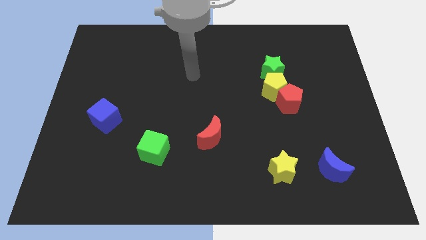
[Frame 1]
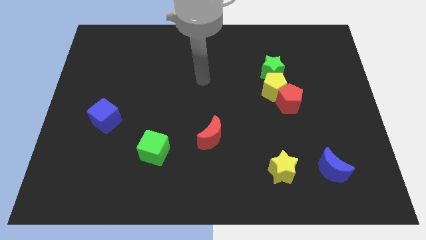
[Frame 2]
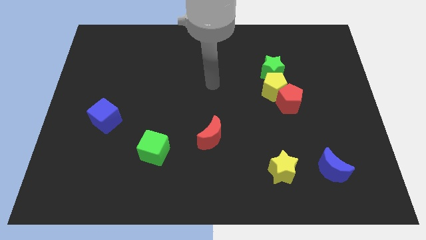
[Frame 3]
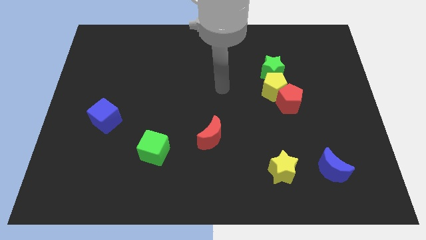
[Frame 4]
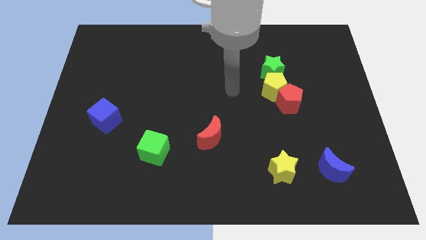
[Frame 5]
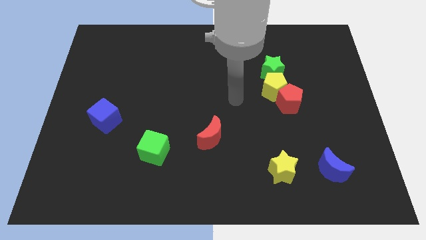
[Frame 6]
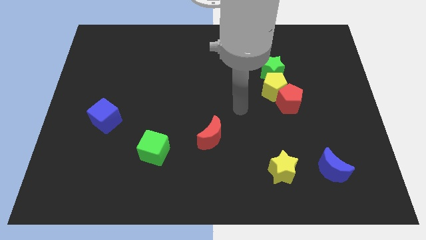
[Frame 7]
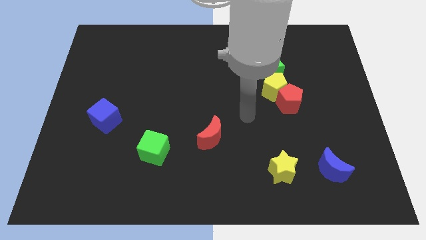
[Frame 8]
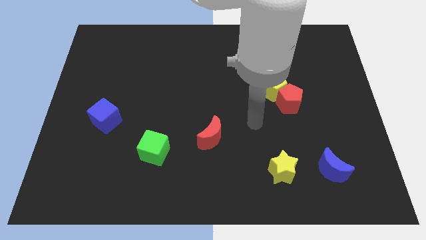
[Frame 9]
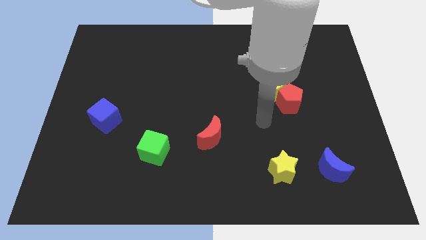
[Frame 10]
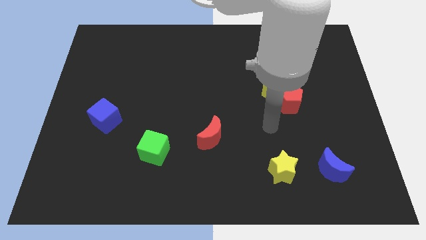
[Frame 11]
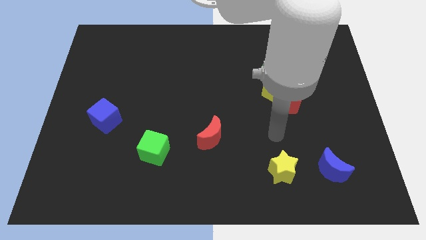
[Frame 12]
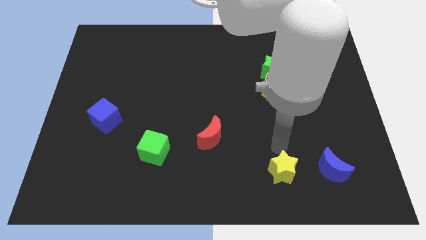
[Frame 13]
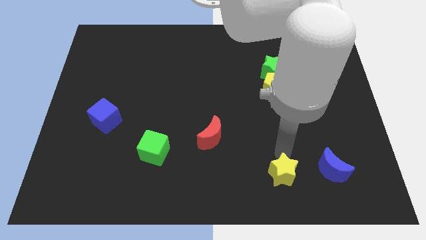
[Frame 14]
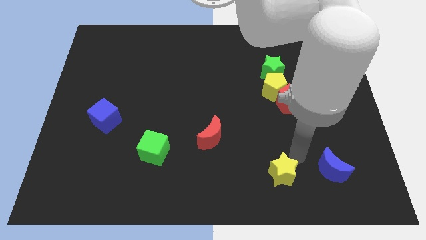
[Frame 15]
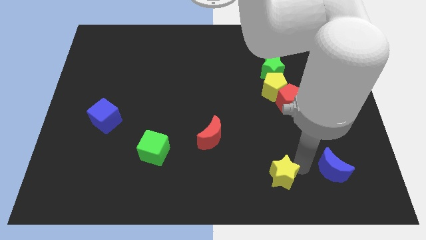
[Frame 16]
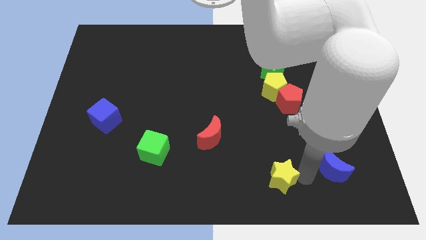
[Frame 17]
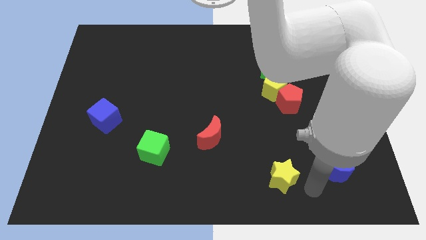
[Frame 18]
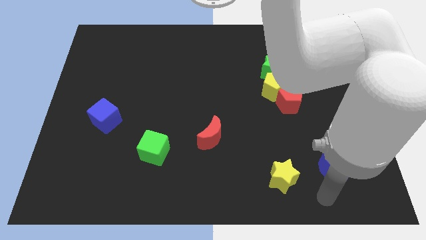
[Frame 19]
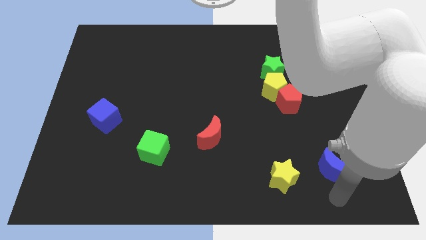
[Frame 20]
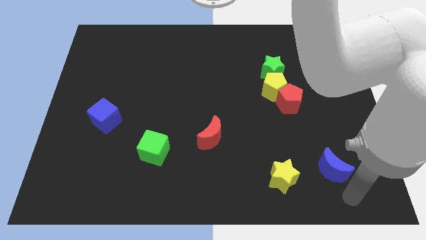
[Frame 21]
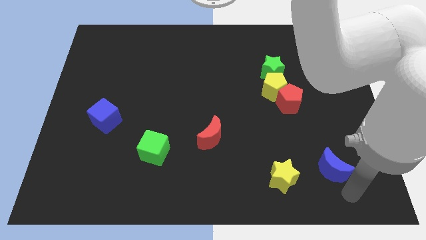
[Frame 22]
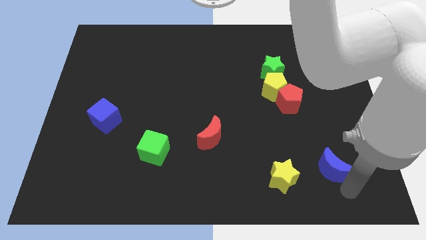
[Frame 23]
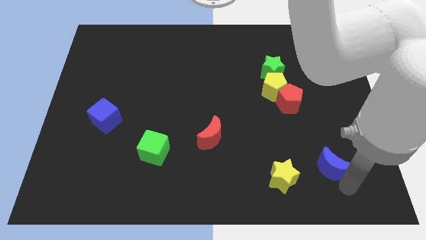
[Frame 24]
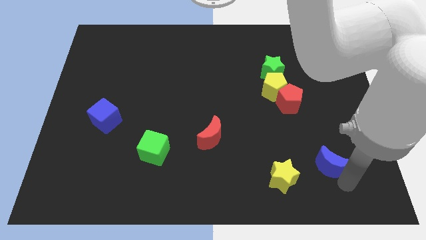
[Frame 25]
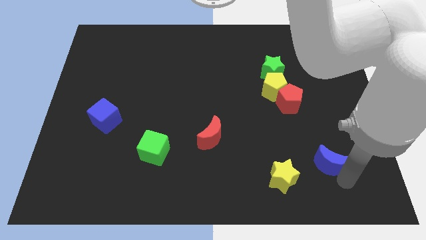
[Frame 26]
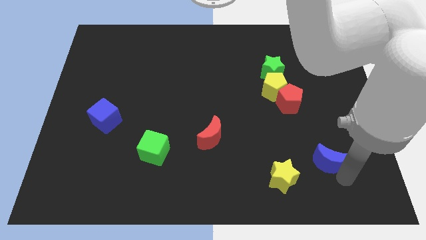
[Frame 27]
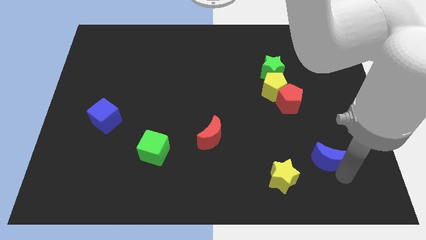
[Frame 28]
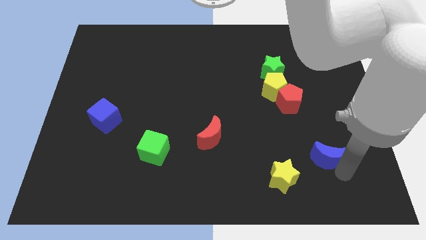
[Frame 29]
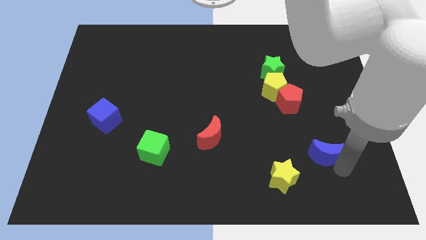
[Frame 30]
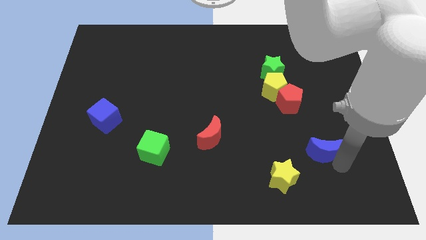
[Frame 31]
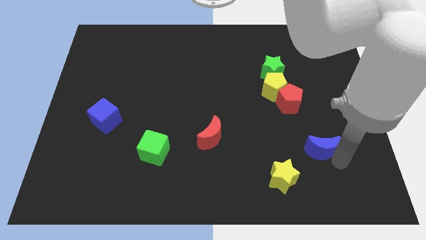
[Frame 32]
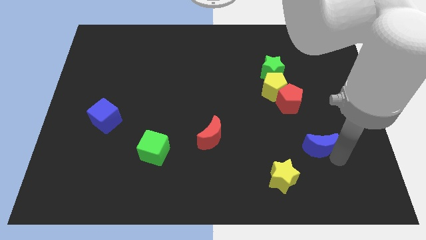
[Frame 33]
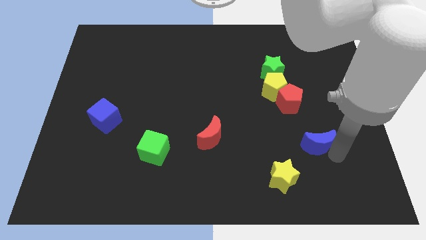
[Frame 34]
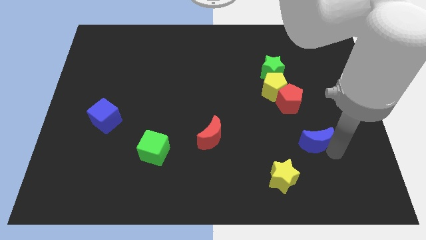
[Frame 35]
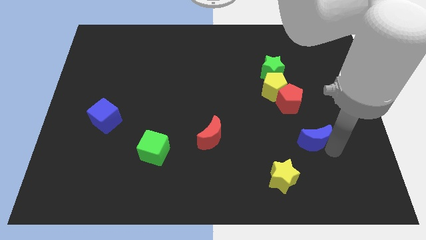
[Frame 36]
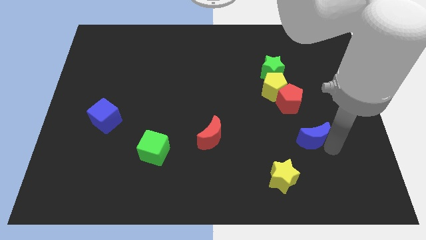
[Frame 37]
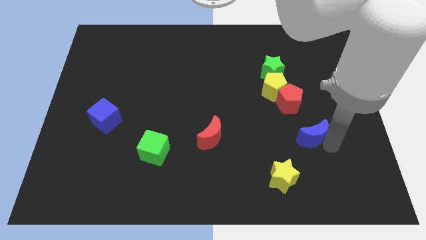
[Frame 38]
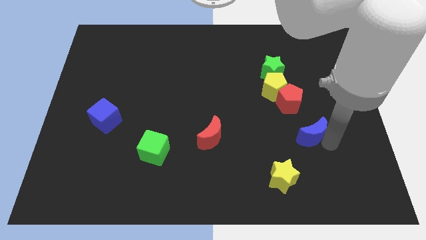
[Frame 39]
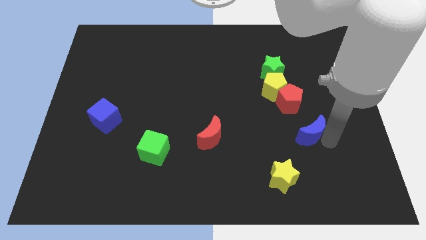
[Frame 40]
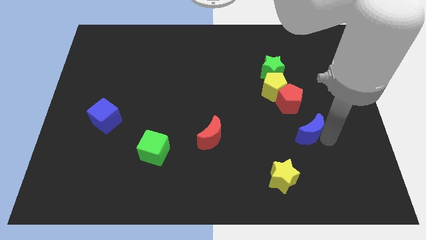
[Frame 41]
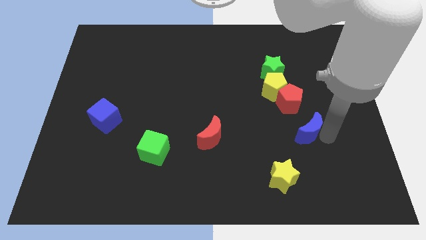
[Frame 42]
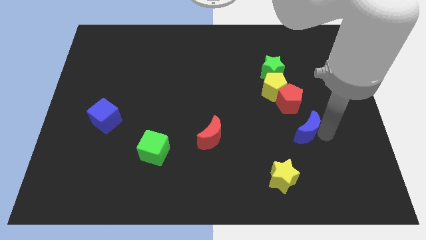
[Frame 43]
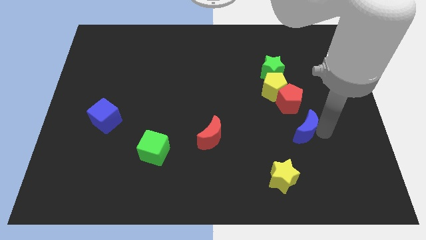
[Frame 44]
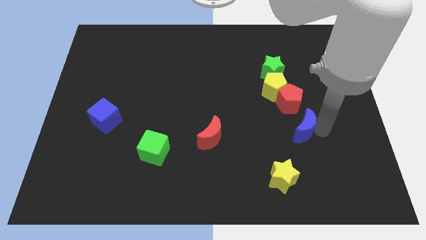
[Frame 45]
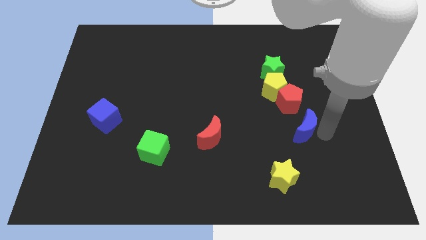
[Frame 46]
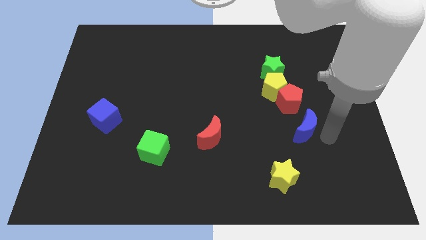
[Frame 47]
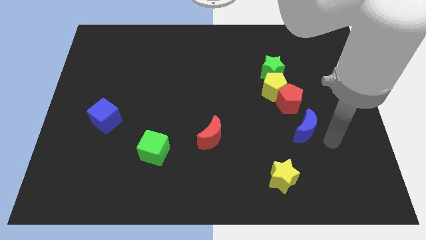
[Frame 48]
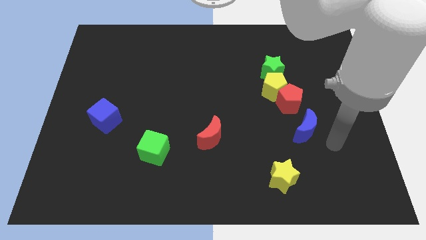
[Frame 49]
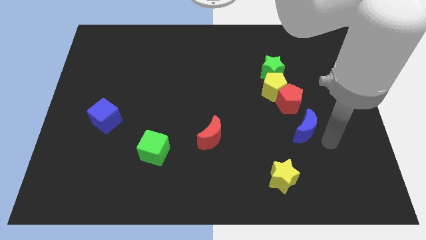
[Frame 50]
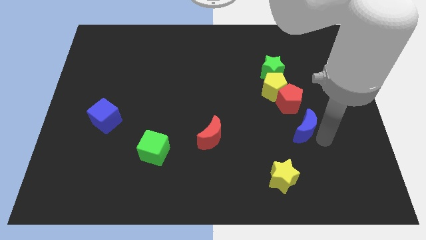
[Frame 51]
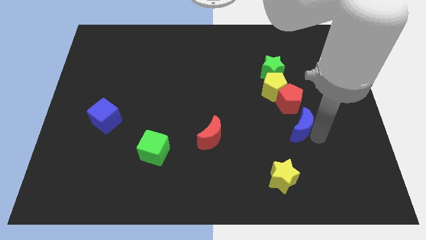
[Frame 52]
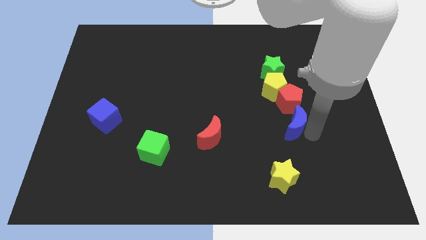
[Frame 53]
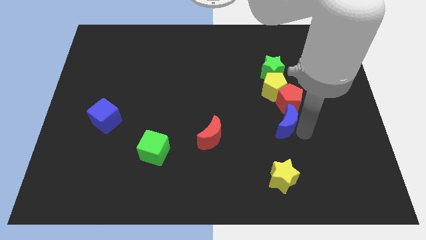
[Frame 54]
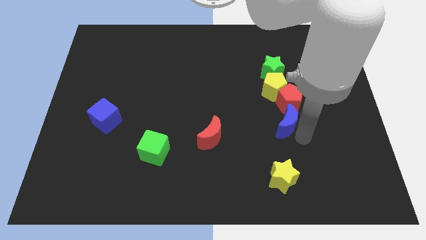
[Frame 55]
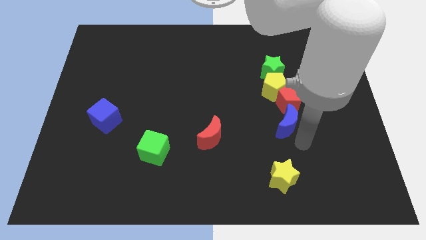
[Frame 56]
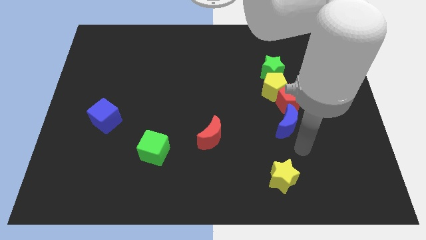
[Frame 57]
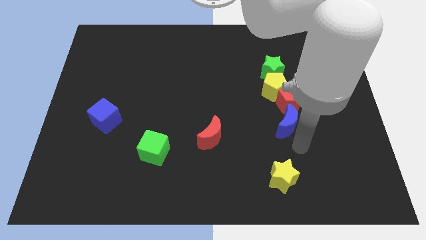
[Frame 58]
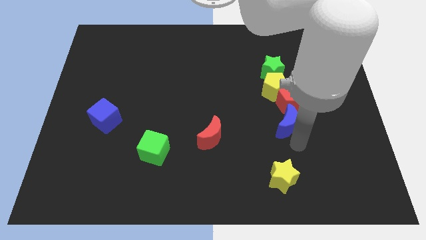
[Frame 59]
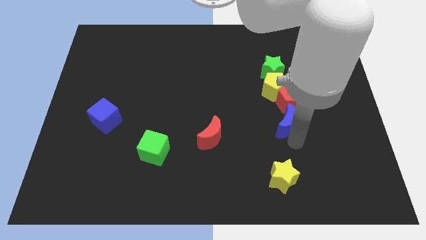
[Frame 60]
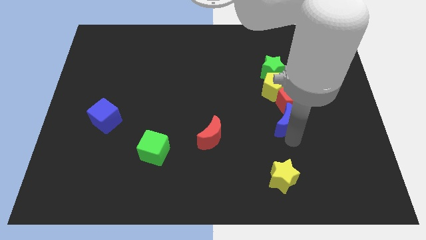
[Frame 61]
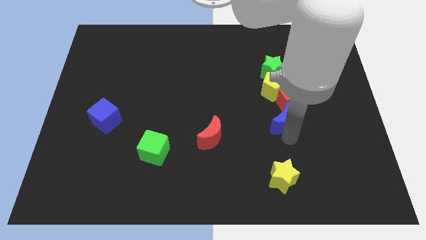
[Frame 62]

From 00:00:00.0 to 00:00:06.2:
move the blue moon below the green star

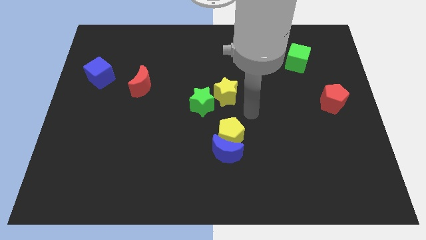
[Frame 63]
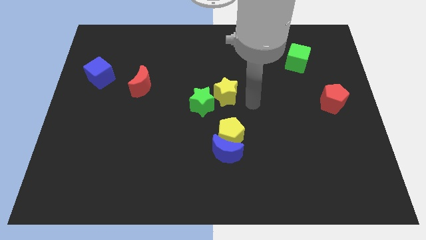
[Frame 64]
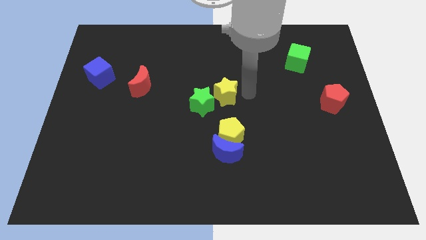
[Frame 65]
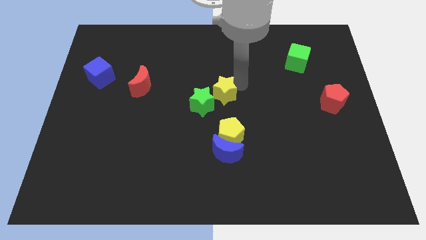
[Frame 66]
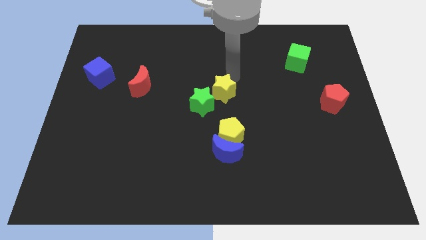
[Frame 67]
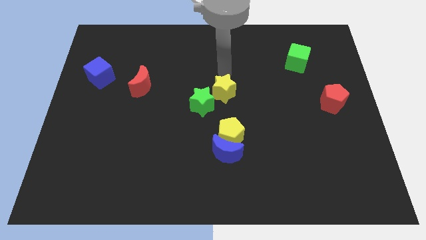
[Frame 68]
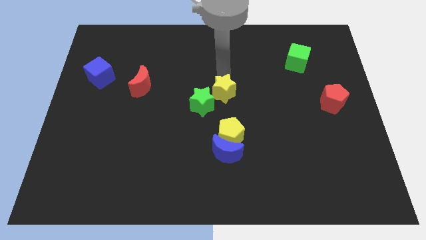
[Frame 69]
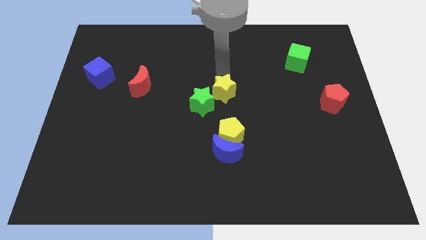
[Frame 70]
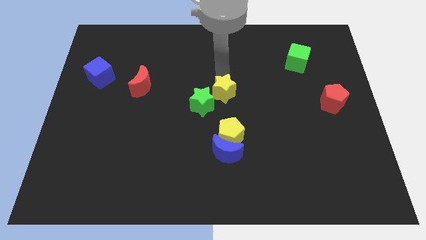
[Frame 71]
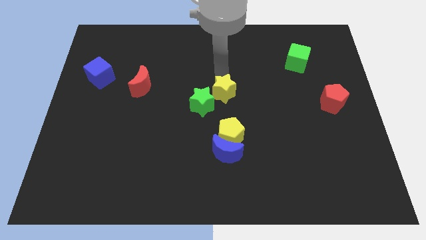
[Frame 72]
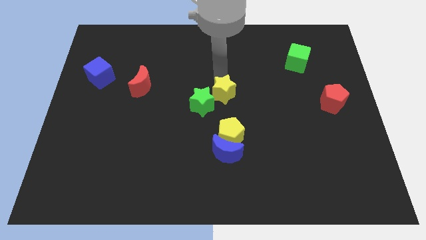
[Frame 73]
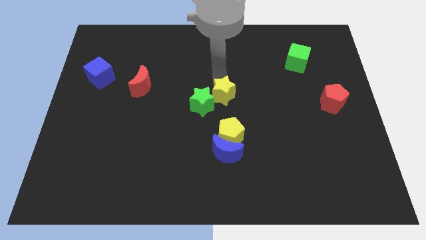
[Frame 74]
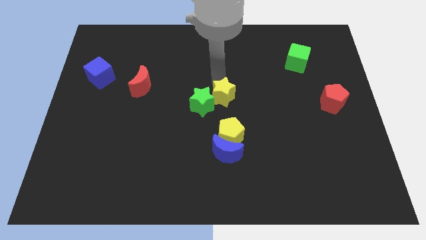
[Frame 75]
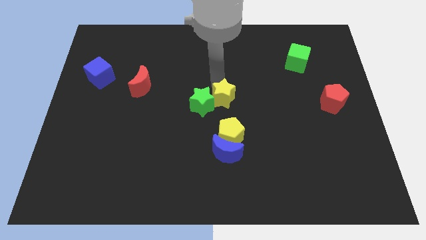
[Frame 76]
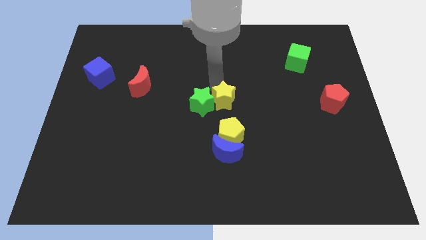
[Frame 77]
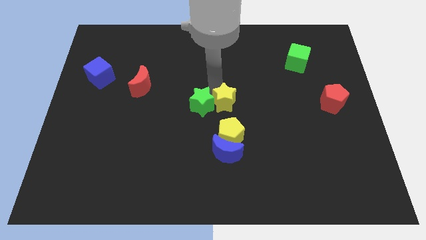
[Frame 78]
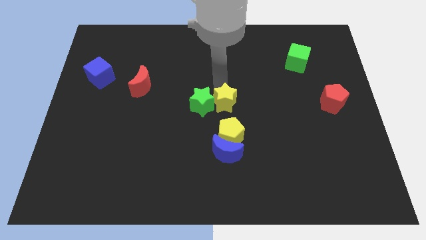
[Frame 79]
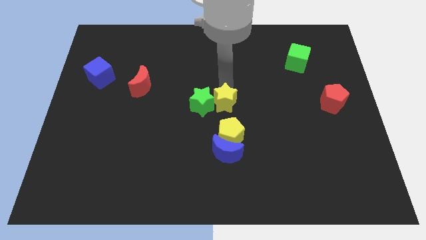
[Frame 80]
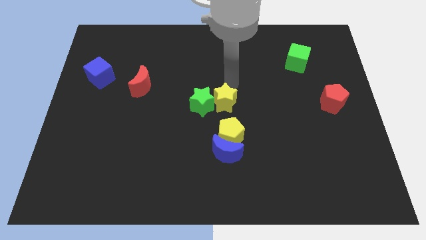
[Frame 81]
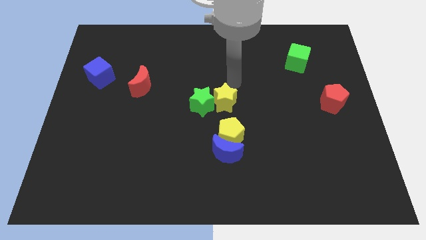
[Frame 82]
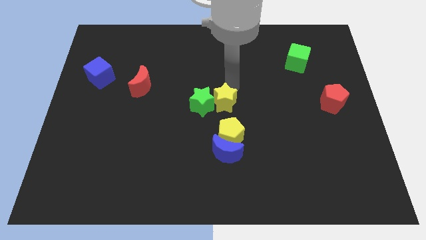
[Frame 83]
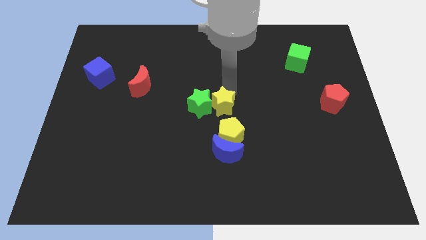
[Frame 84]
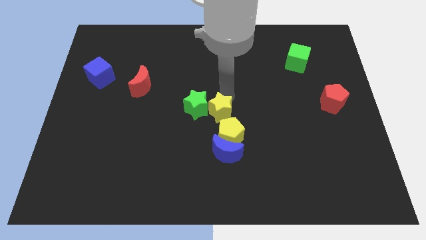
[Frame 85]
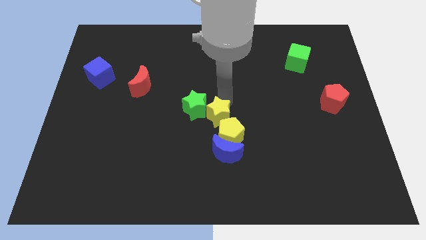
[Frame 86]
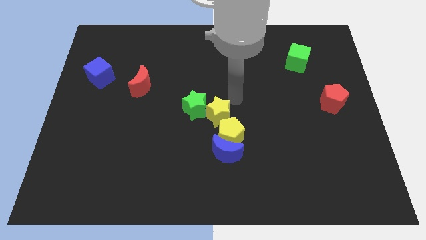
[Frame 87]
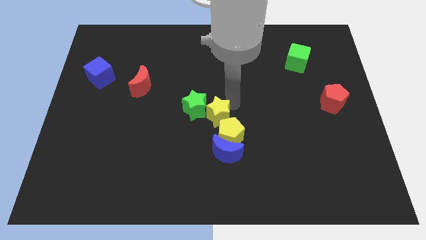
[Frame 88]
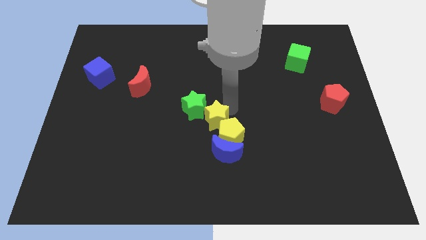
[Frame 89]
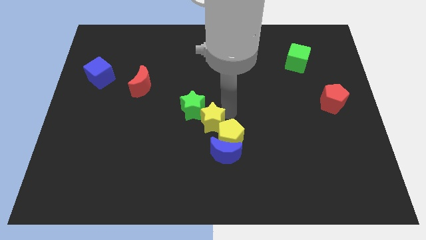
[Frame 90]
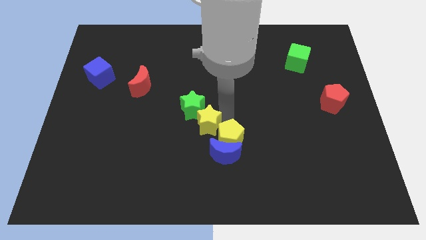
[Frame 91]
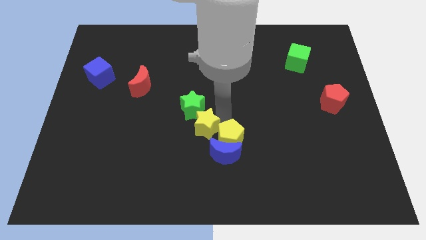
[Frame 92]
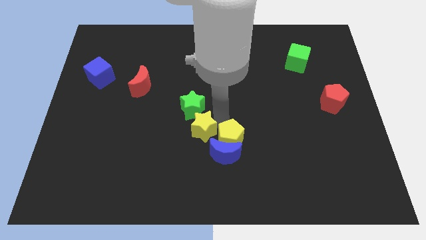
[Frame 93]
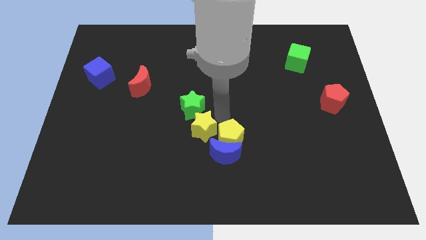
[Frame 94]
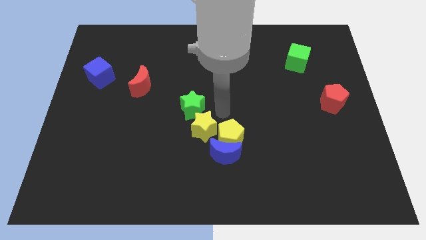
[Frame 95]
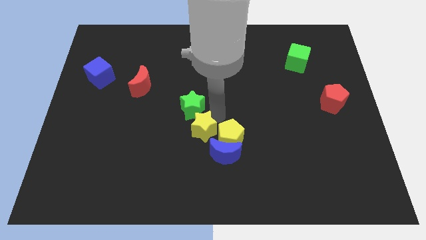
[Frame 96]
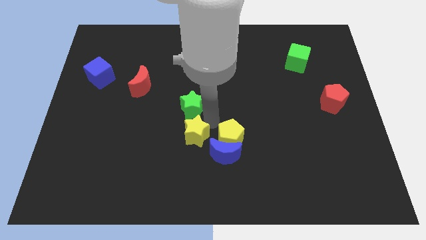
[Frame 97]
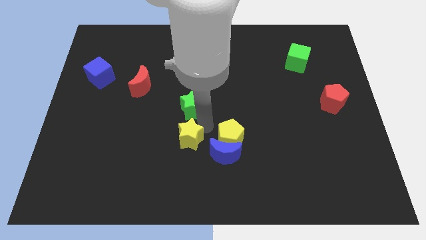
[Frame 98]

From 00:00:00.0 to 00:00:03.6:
slide the yellow star left of the blue moon
